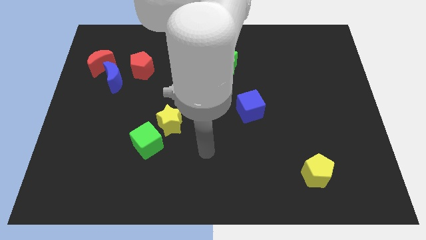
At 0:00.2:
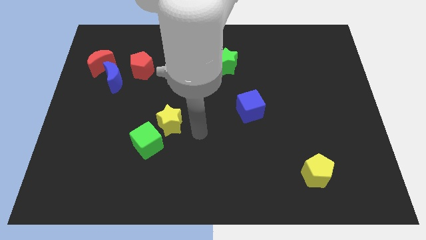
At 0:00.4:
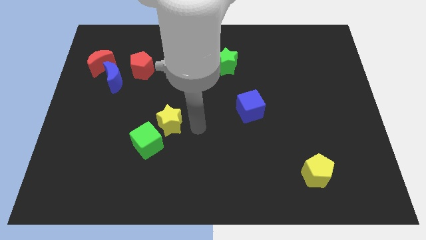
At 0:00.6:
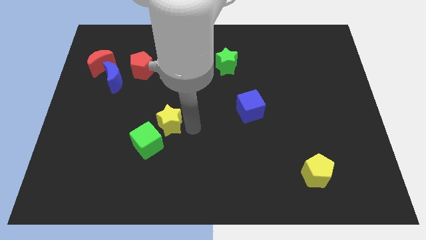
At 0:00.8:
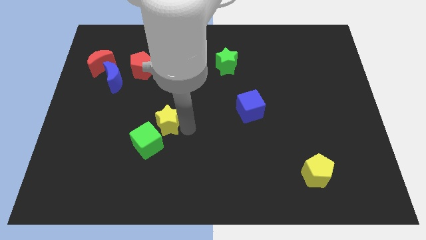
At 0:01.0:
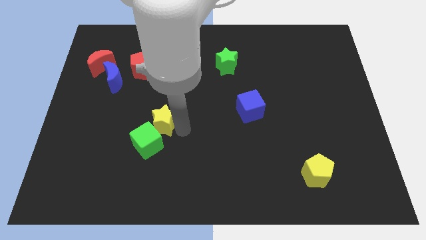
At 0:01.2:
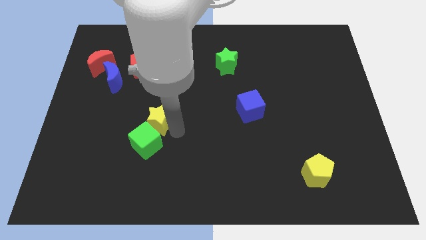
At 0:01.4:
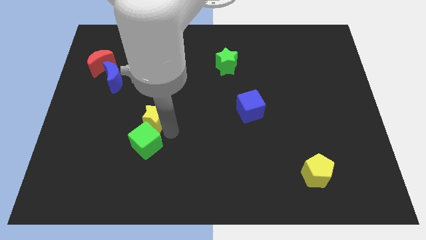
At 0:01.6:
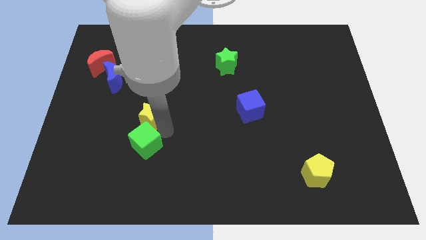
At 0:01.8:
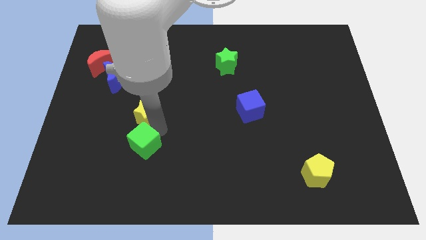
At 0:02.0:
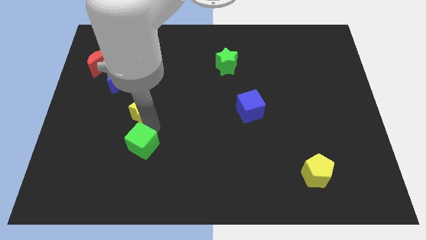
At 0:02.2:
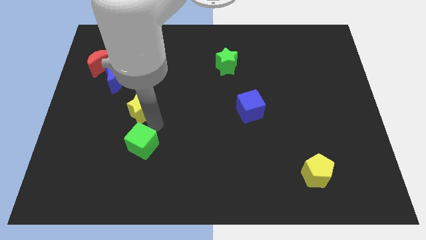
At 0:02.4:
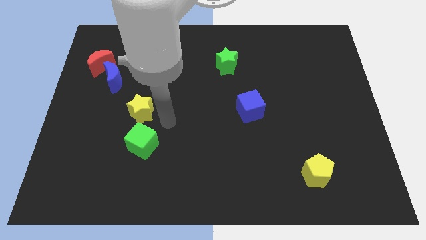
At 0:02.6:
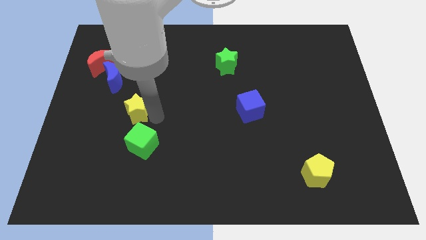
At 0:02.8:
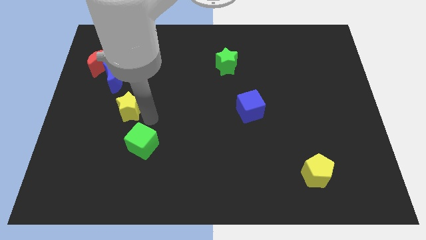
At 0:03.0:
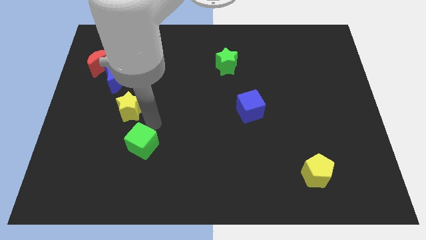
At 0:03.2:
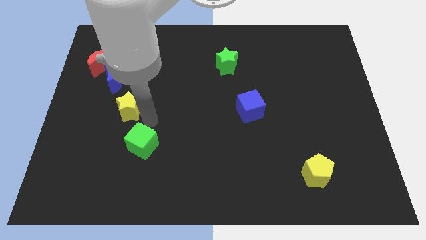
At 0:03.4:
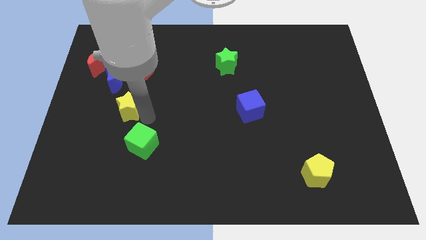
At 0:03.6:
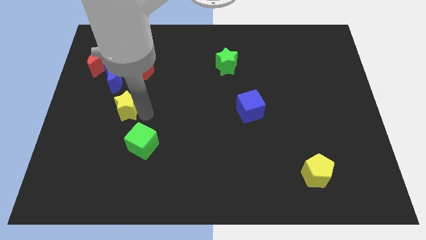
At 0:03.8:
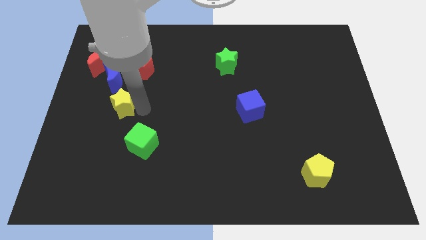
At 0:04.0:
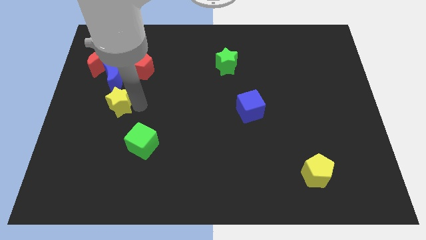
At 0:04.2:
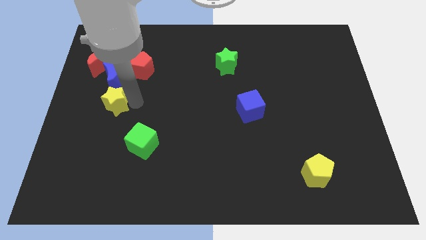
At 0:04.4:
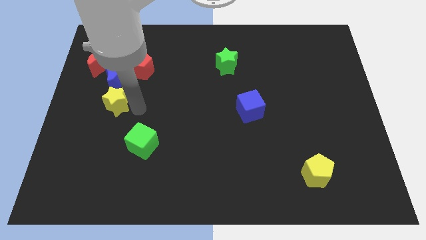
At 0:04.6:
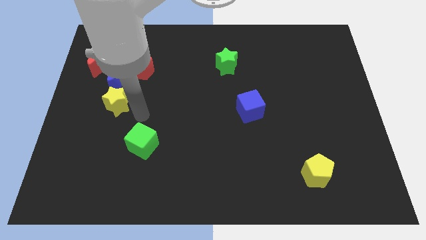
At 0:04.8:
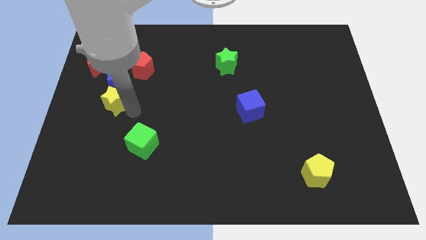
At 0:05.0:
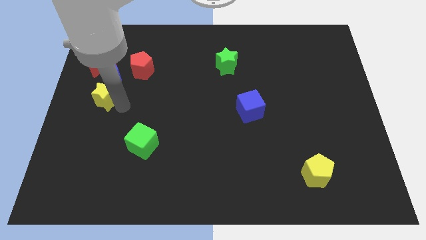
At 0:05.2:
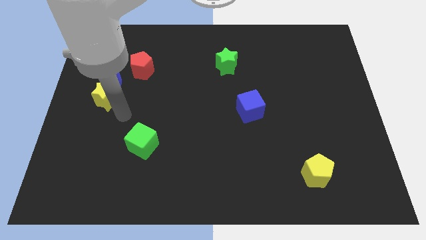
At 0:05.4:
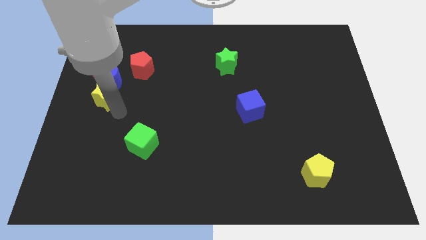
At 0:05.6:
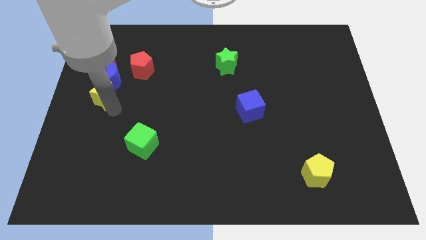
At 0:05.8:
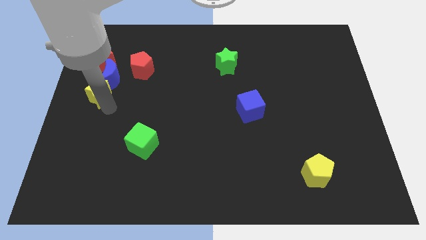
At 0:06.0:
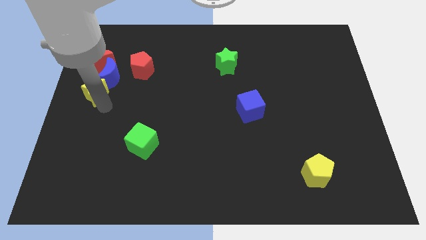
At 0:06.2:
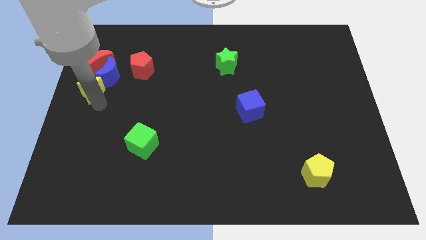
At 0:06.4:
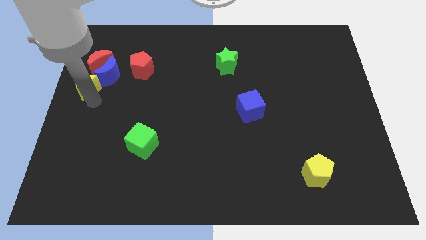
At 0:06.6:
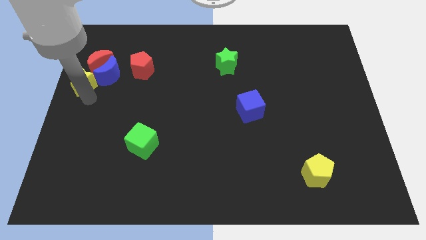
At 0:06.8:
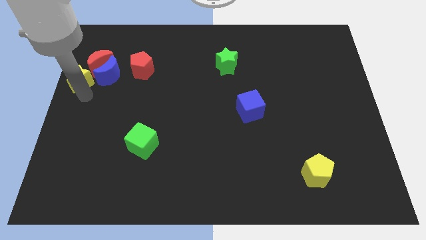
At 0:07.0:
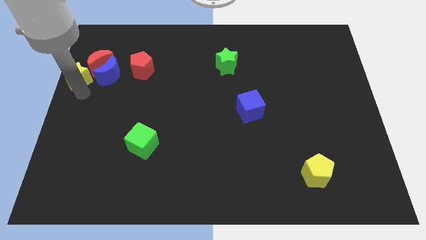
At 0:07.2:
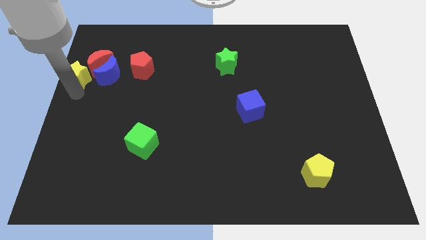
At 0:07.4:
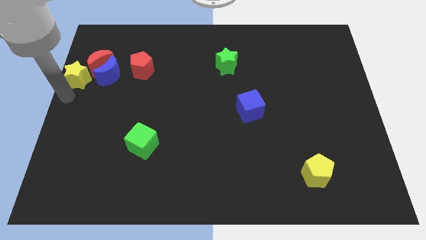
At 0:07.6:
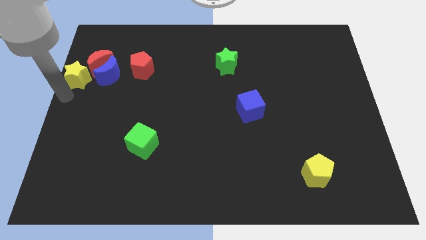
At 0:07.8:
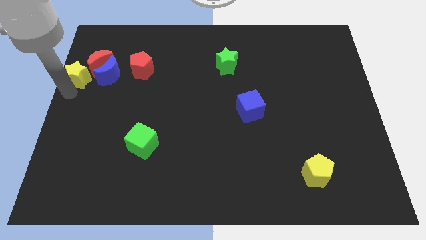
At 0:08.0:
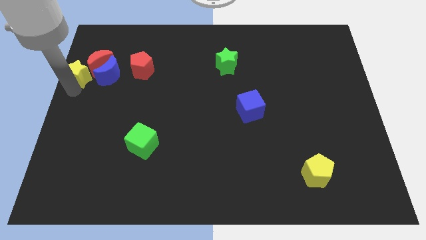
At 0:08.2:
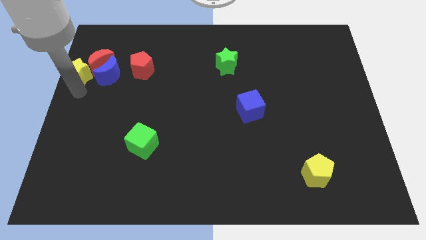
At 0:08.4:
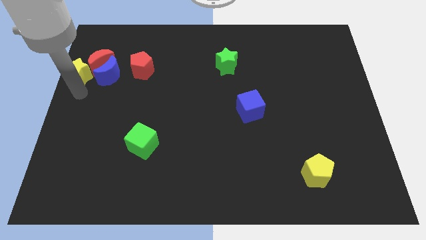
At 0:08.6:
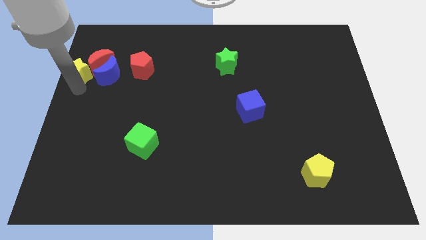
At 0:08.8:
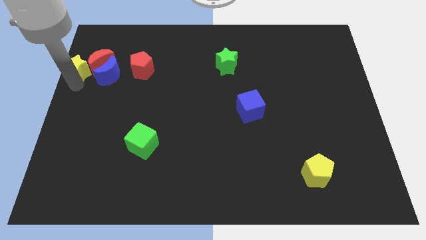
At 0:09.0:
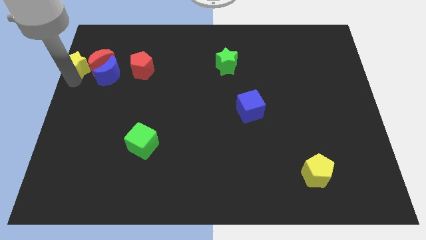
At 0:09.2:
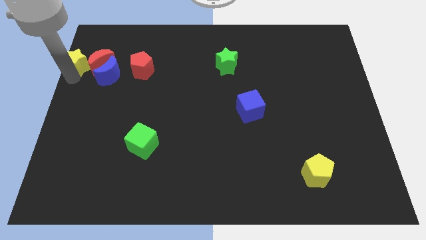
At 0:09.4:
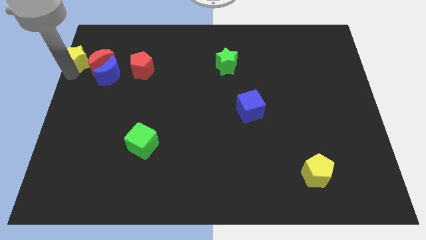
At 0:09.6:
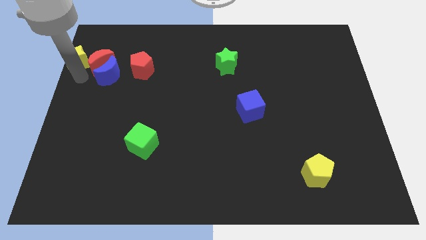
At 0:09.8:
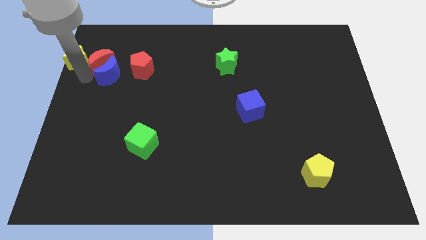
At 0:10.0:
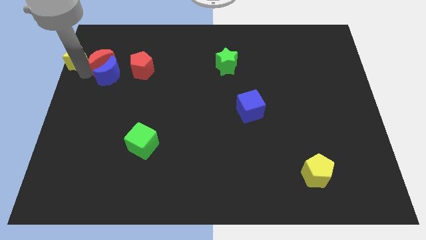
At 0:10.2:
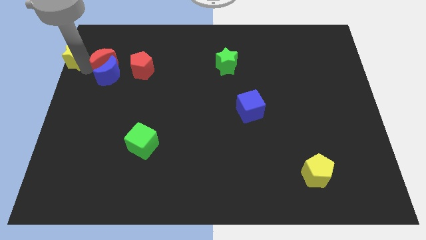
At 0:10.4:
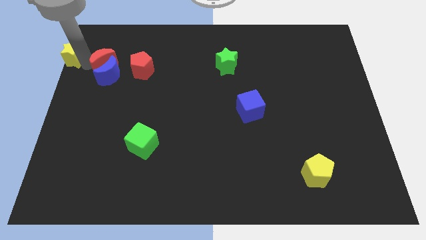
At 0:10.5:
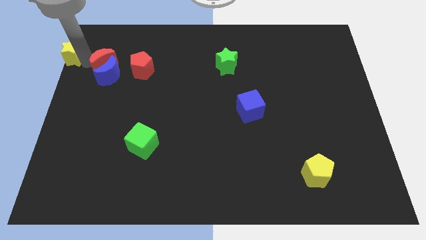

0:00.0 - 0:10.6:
move the yellow star to the upper left corner

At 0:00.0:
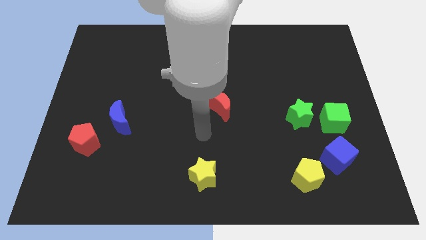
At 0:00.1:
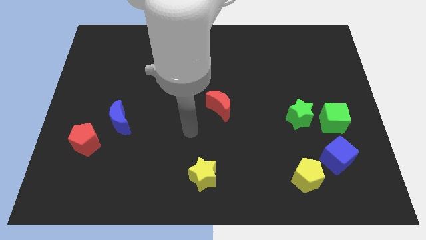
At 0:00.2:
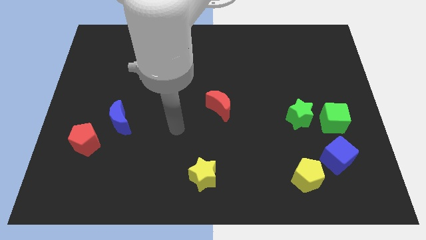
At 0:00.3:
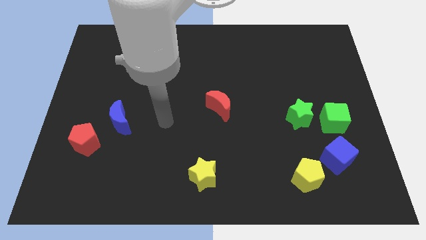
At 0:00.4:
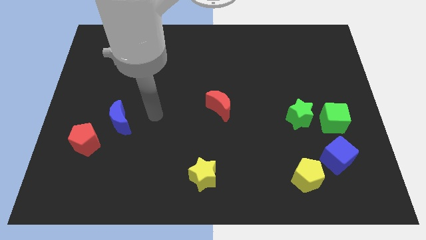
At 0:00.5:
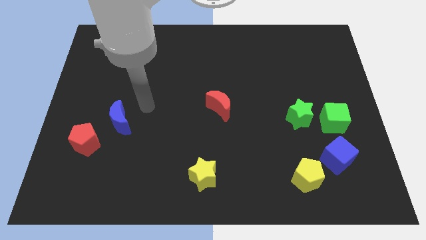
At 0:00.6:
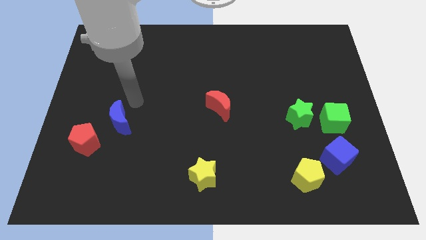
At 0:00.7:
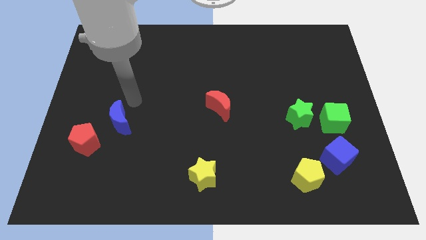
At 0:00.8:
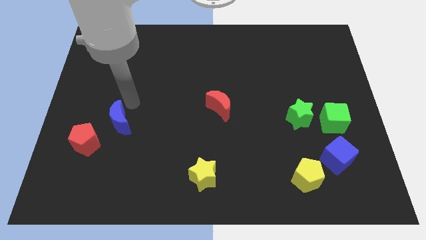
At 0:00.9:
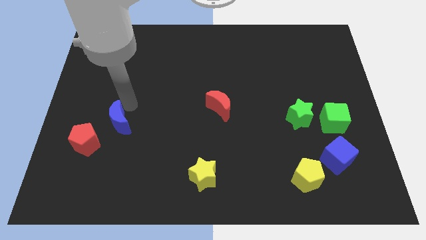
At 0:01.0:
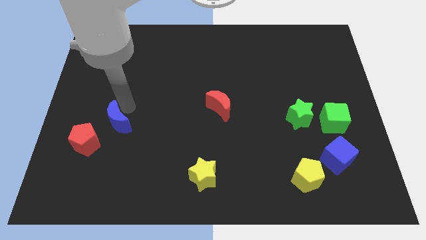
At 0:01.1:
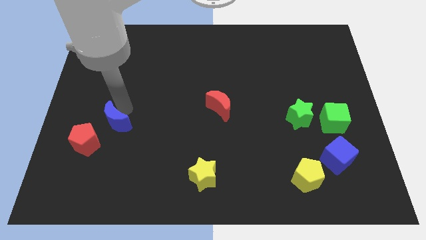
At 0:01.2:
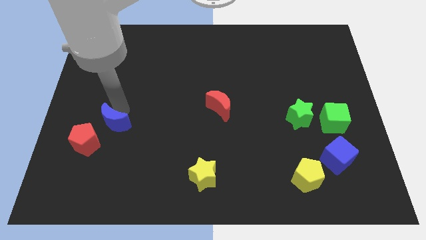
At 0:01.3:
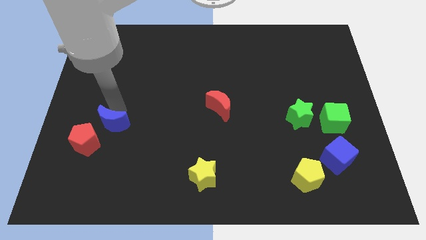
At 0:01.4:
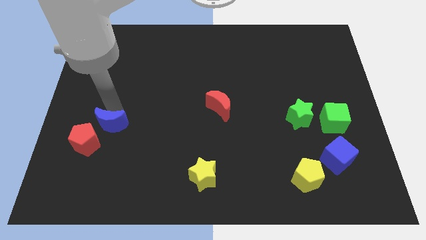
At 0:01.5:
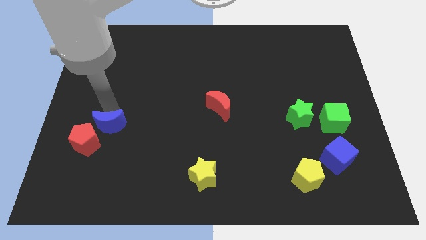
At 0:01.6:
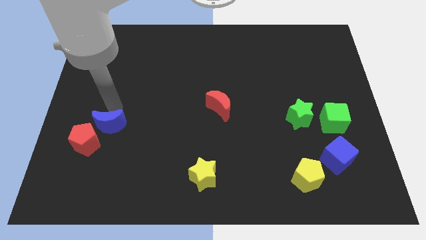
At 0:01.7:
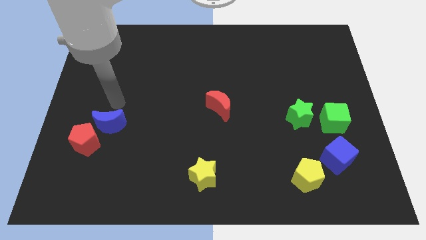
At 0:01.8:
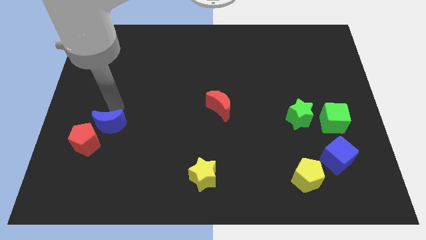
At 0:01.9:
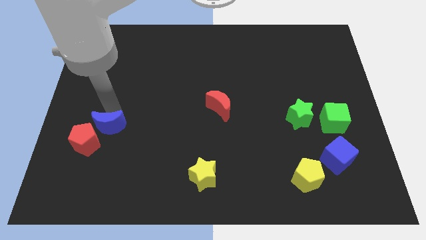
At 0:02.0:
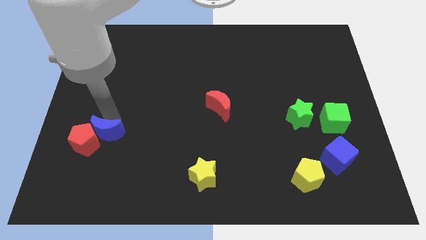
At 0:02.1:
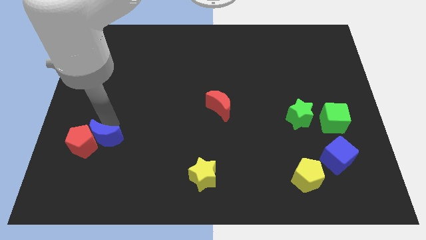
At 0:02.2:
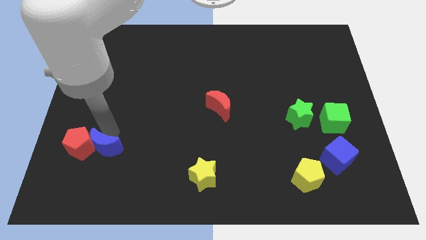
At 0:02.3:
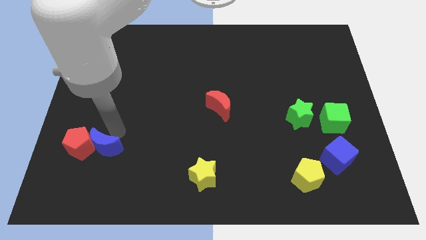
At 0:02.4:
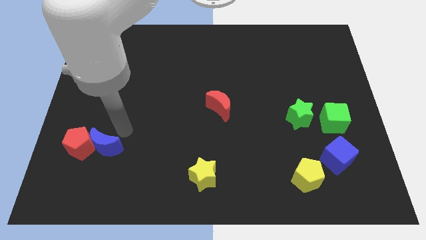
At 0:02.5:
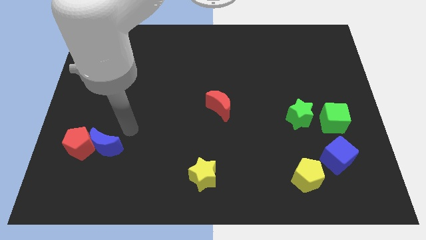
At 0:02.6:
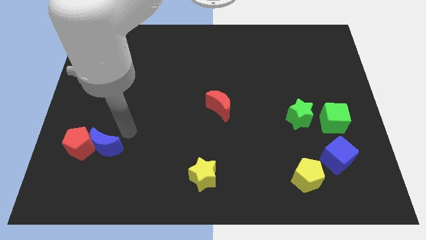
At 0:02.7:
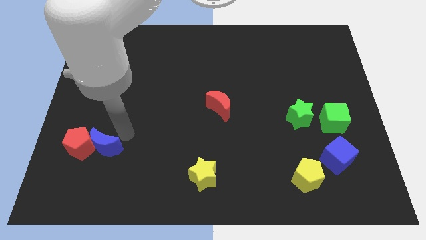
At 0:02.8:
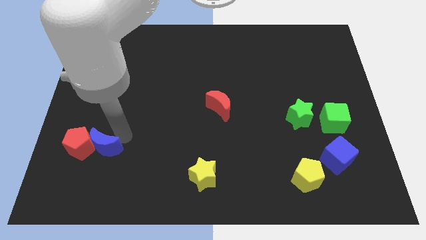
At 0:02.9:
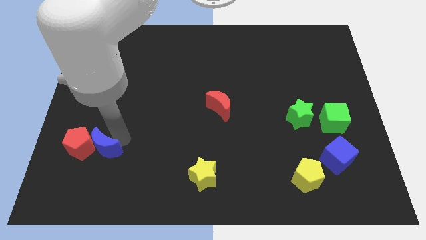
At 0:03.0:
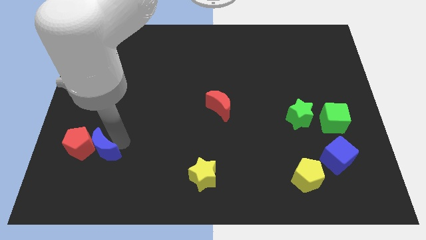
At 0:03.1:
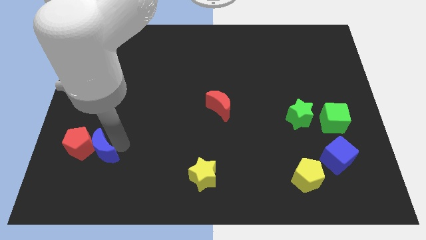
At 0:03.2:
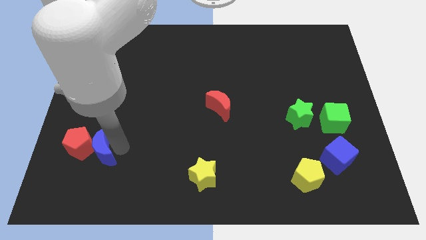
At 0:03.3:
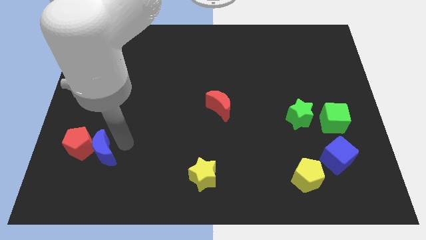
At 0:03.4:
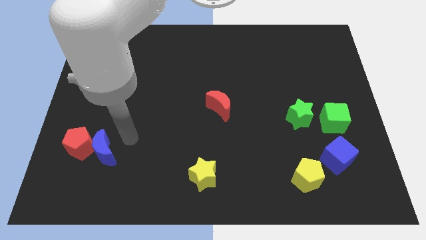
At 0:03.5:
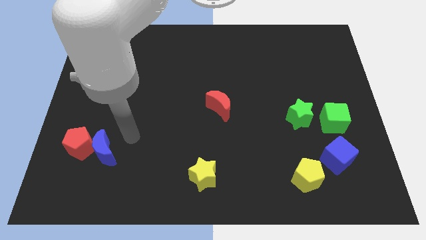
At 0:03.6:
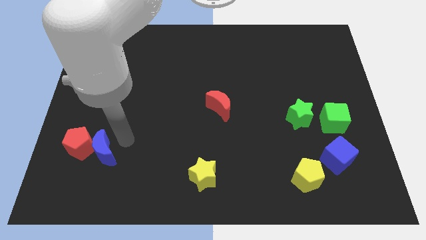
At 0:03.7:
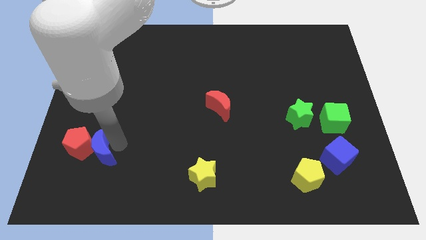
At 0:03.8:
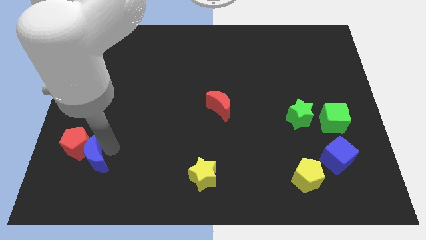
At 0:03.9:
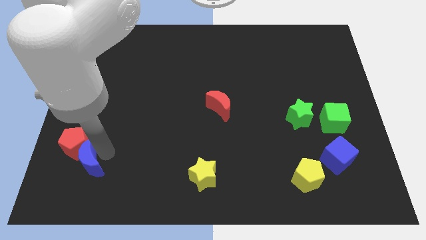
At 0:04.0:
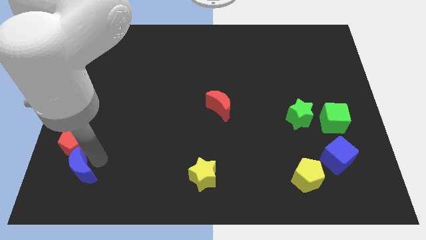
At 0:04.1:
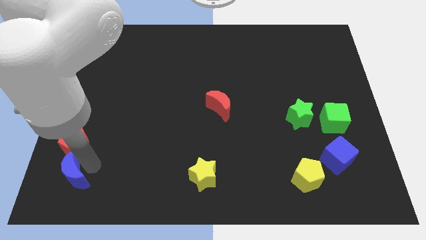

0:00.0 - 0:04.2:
put the blue moon to the bottom left of the board
